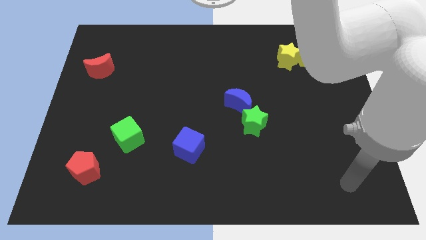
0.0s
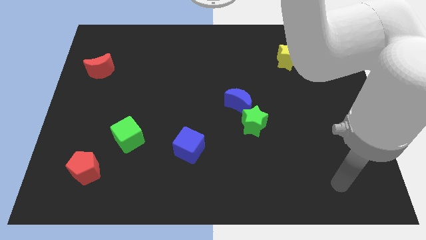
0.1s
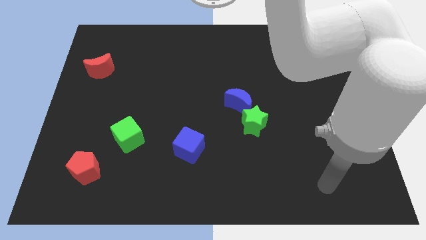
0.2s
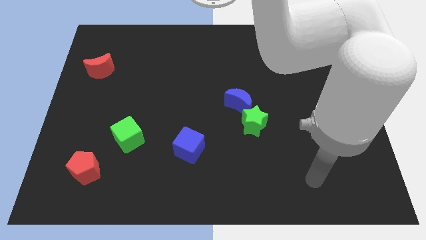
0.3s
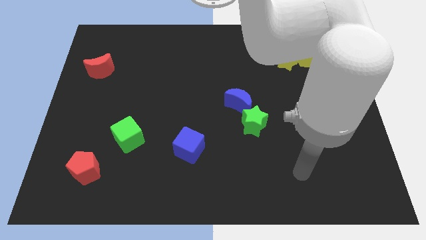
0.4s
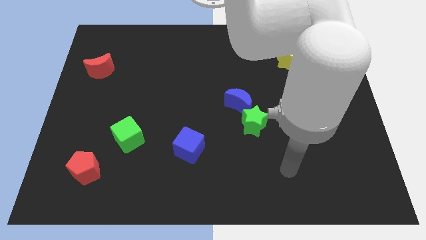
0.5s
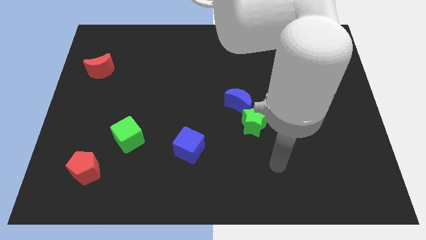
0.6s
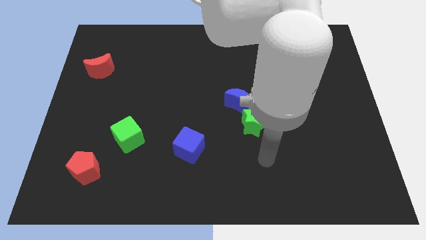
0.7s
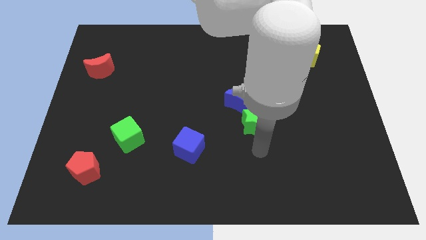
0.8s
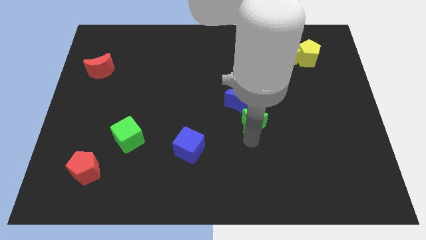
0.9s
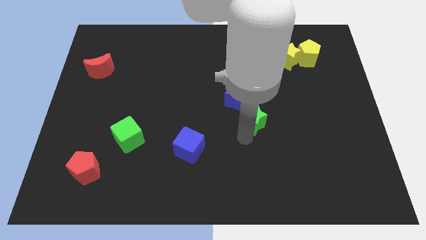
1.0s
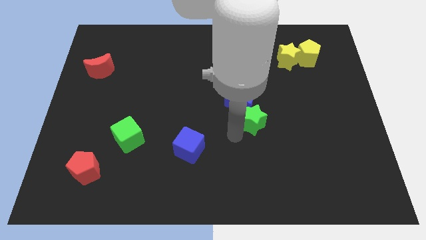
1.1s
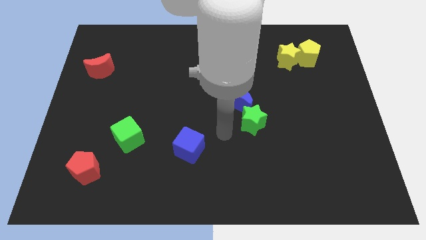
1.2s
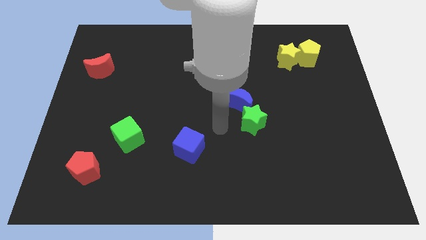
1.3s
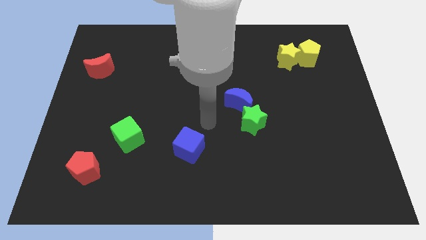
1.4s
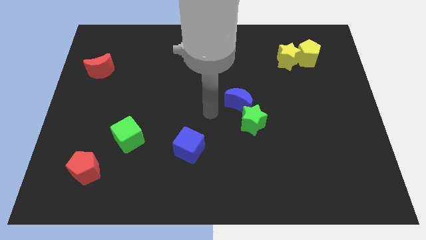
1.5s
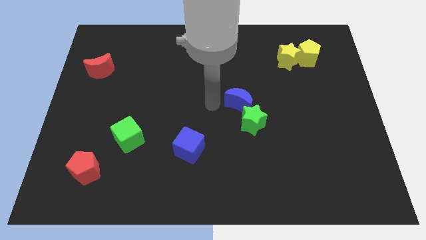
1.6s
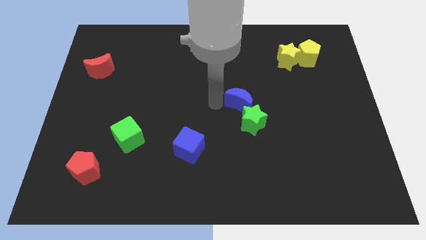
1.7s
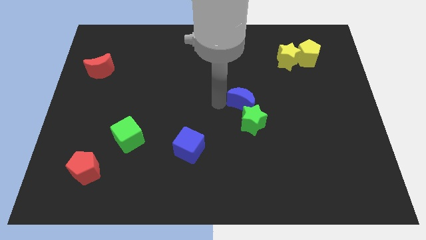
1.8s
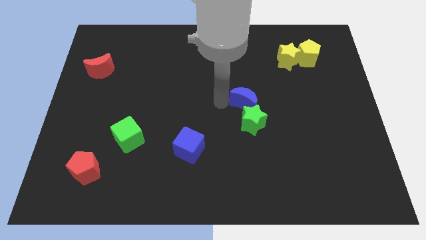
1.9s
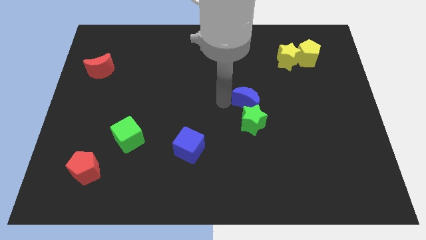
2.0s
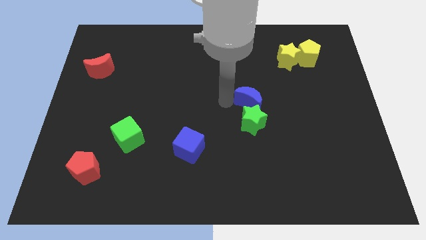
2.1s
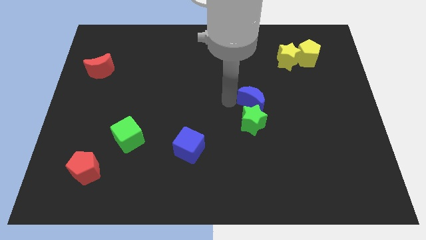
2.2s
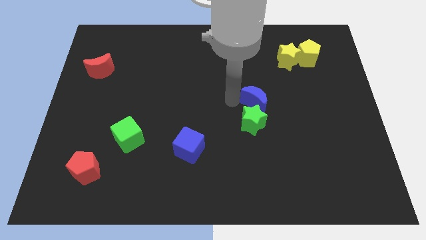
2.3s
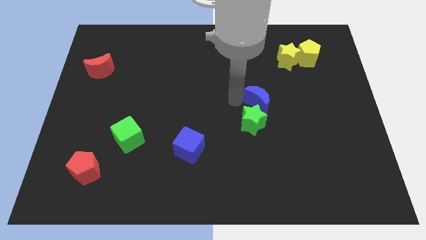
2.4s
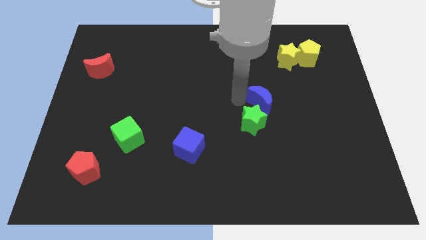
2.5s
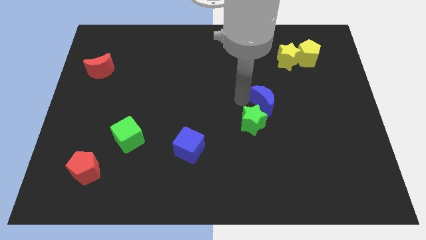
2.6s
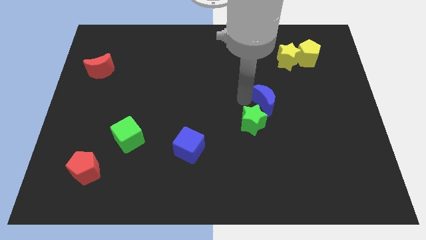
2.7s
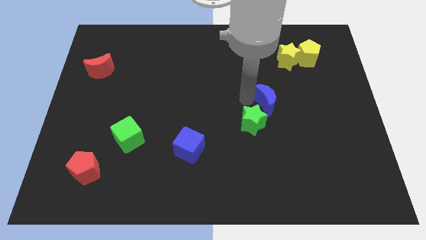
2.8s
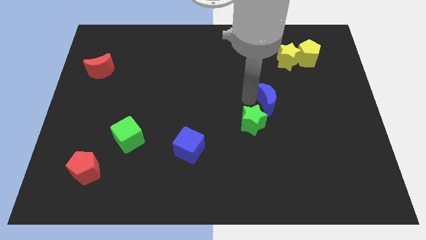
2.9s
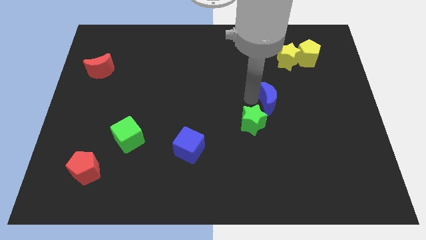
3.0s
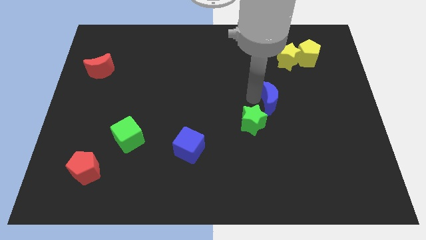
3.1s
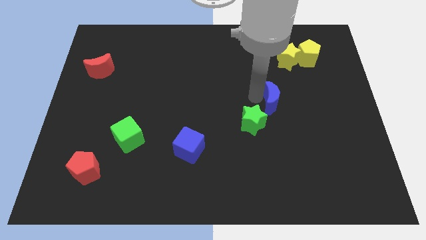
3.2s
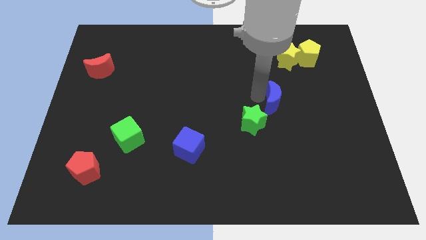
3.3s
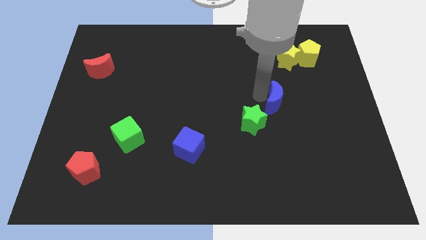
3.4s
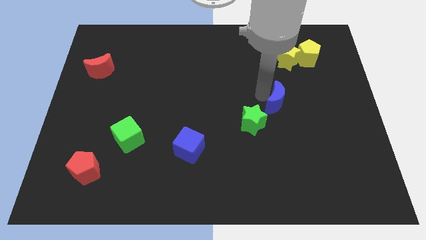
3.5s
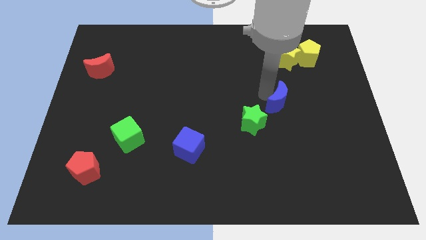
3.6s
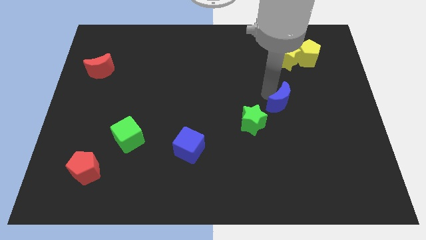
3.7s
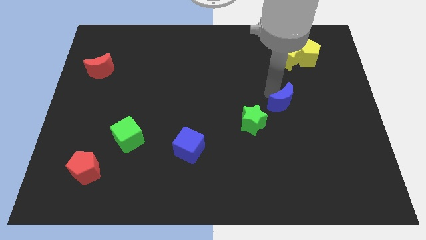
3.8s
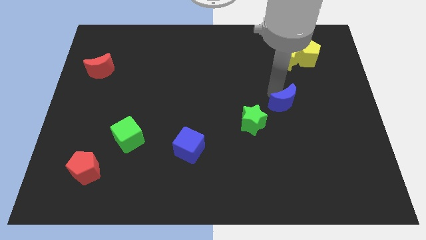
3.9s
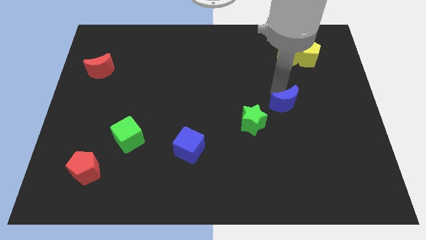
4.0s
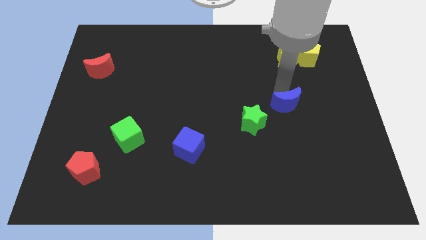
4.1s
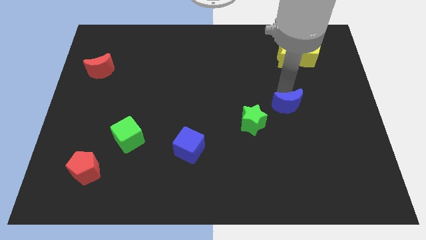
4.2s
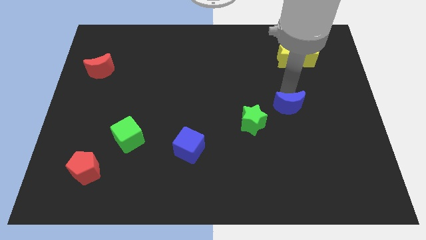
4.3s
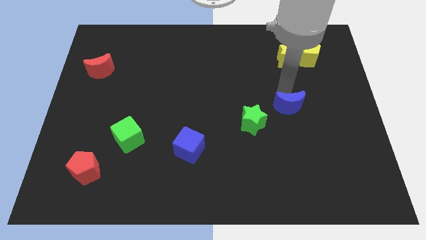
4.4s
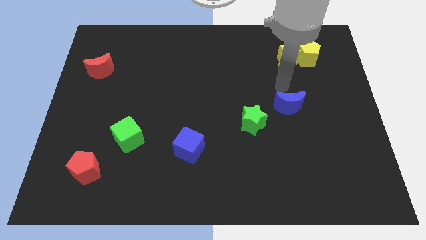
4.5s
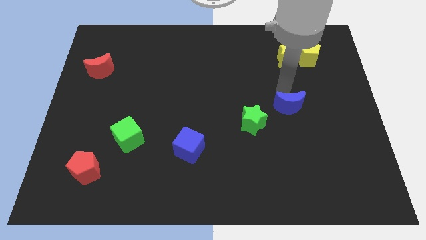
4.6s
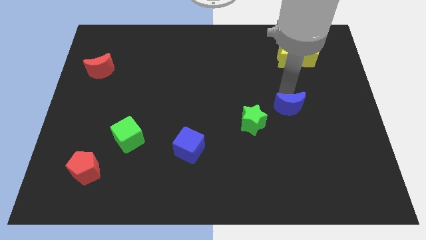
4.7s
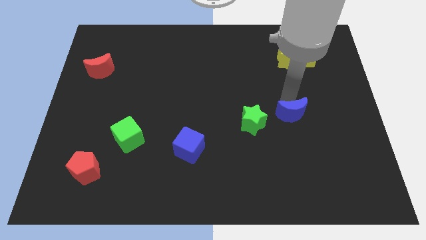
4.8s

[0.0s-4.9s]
slide the blue moon down and to the right diagonally slightly

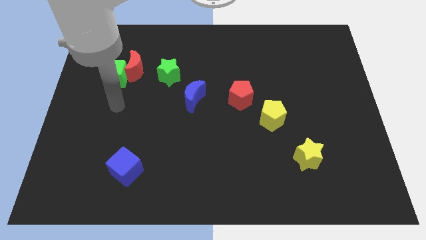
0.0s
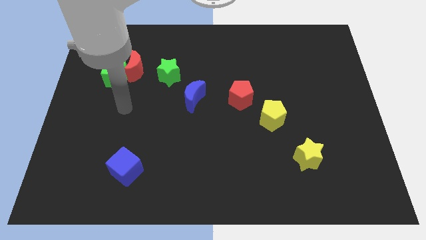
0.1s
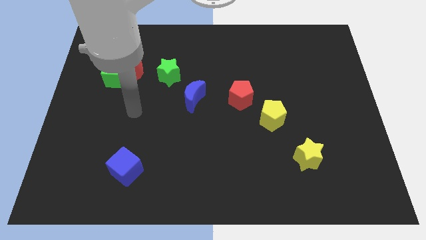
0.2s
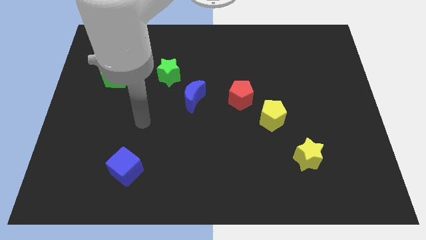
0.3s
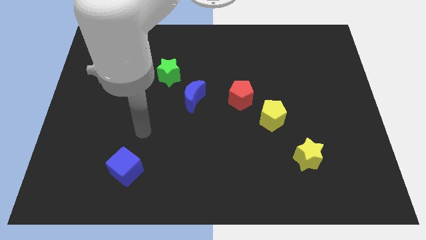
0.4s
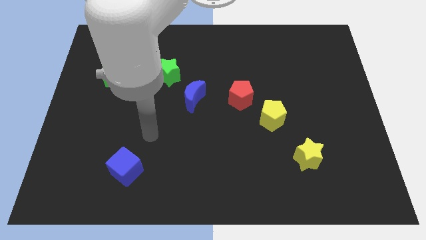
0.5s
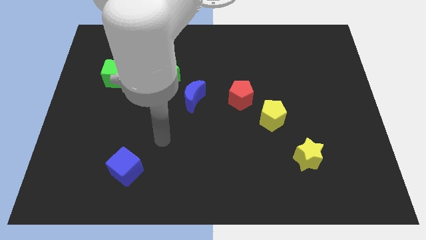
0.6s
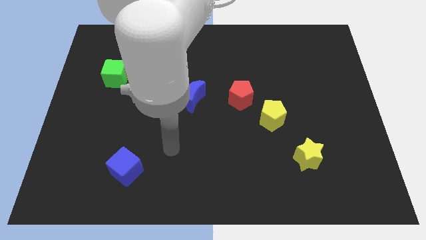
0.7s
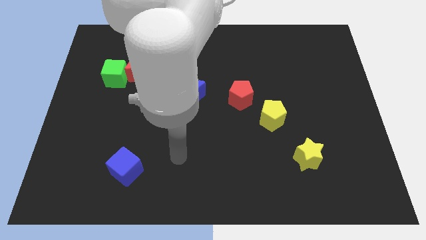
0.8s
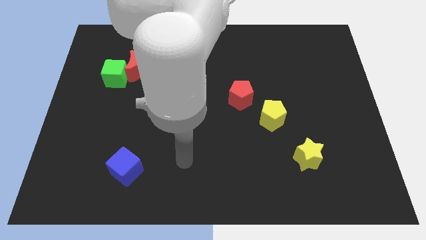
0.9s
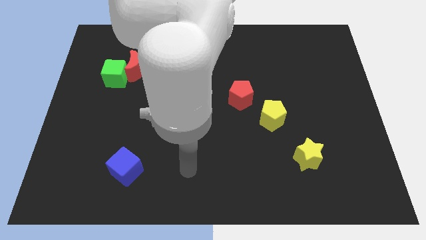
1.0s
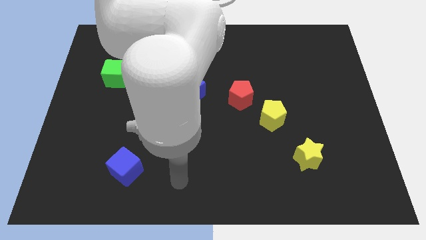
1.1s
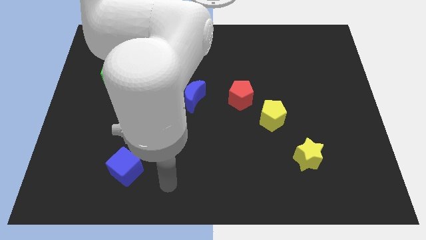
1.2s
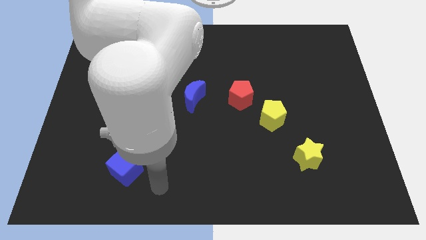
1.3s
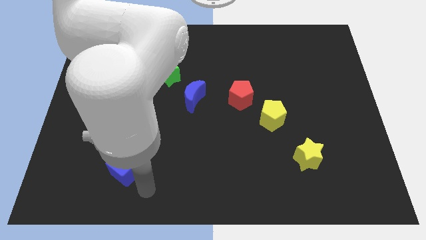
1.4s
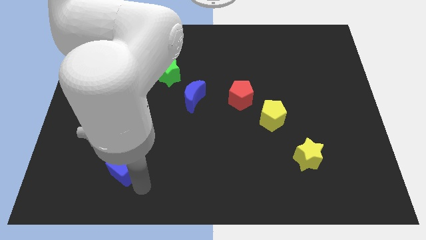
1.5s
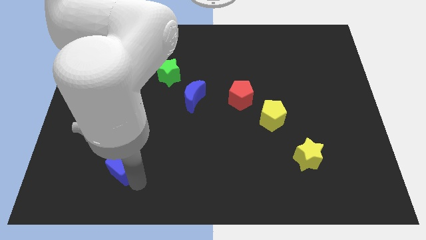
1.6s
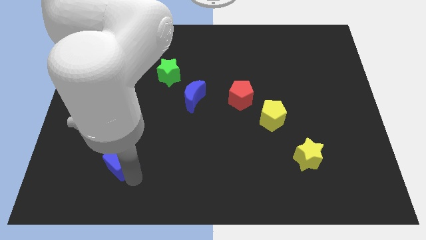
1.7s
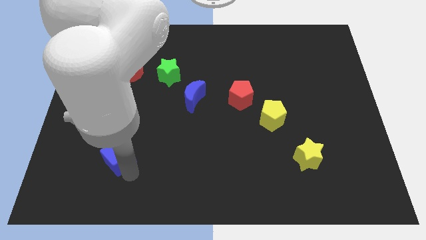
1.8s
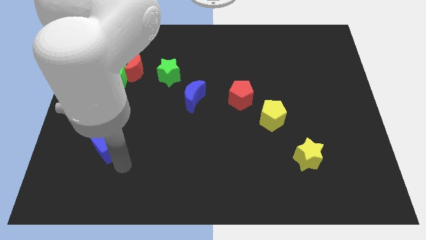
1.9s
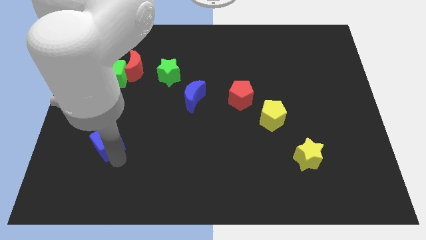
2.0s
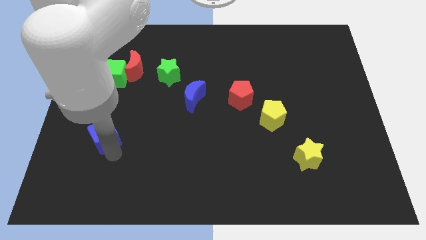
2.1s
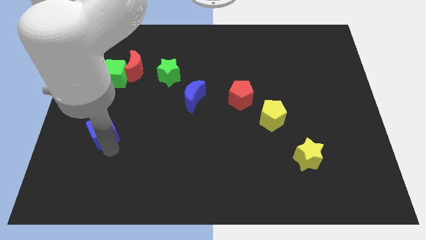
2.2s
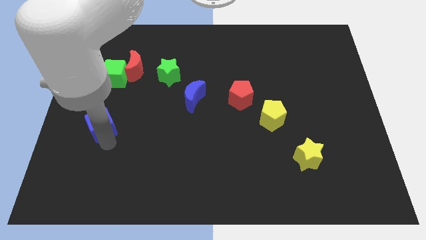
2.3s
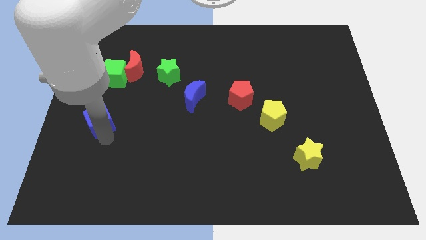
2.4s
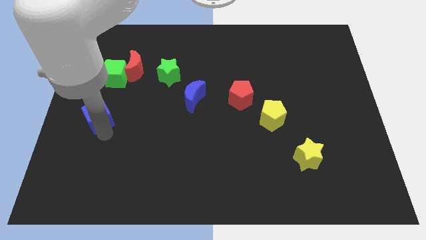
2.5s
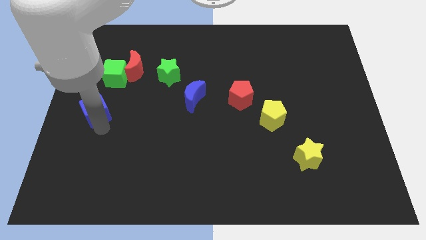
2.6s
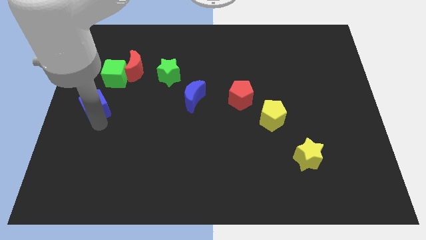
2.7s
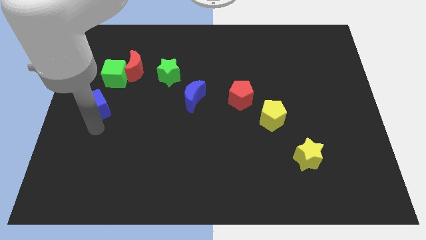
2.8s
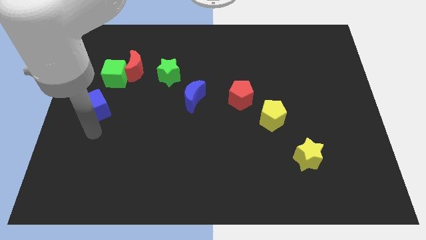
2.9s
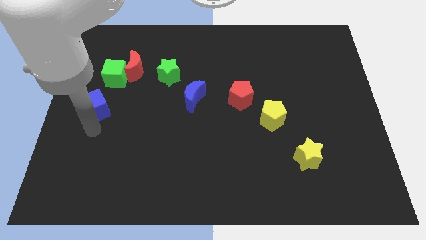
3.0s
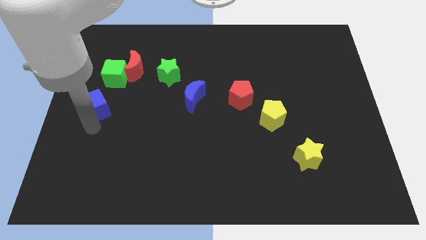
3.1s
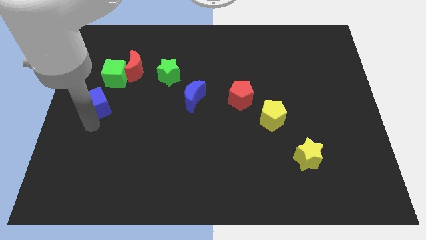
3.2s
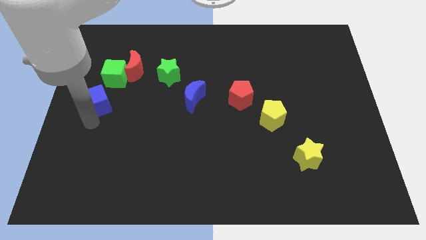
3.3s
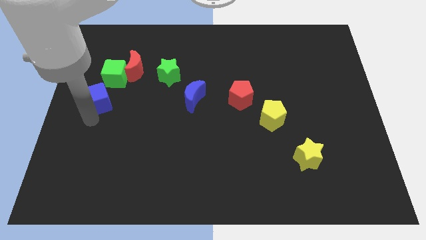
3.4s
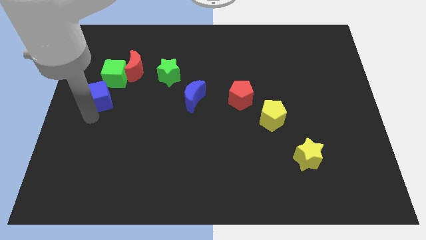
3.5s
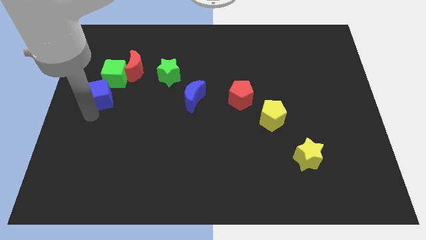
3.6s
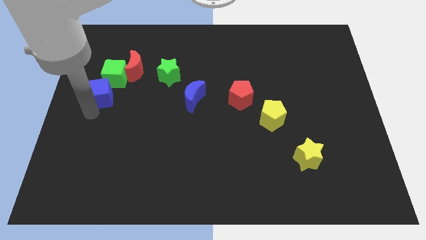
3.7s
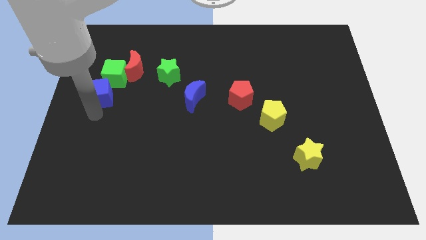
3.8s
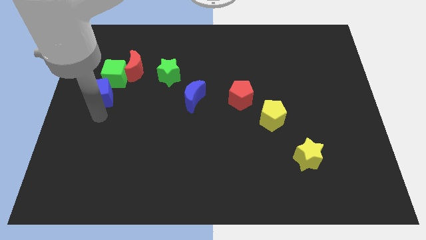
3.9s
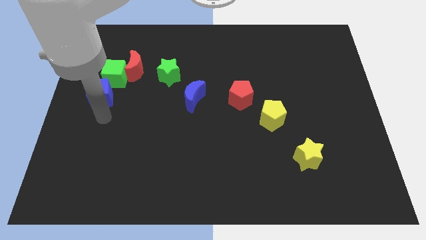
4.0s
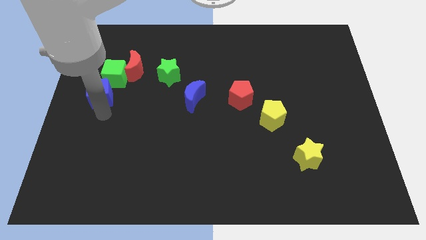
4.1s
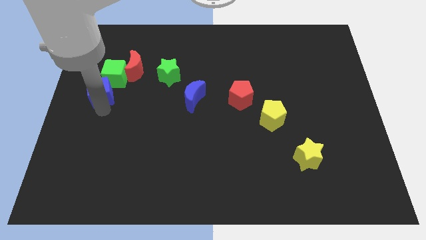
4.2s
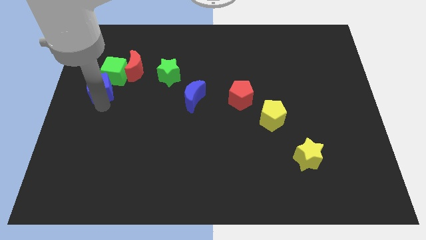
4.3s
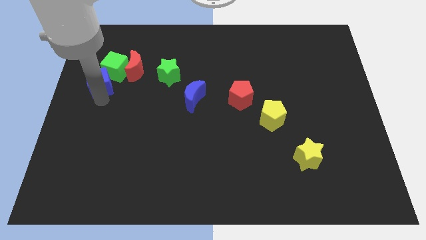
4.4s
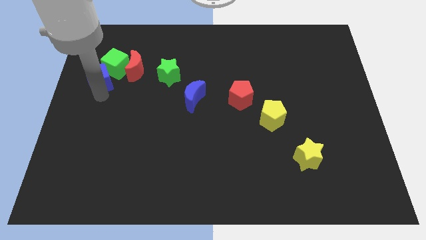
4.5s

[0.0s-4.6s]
move the blue cube up
